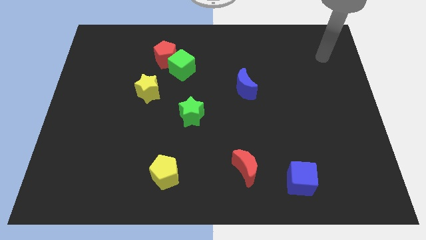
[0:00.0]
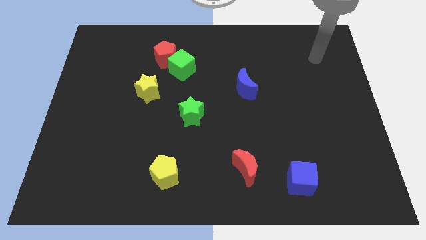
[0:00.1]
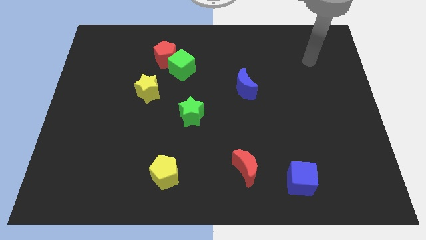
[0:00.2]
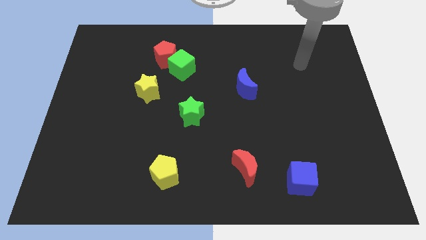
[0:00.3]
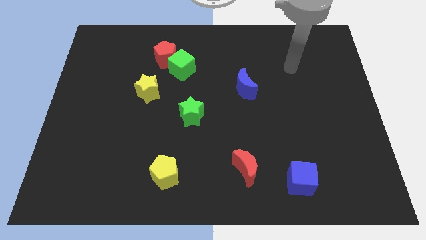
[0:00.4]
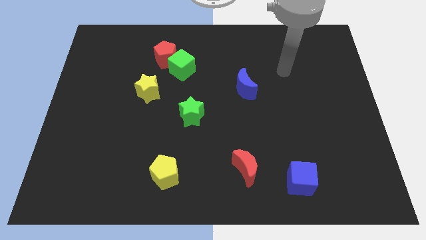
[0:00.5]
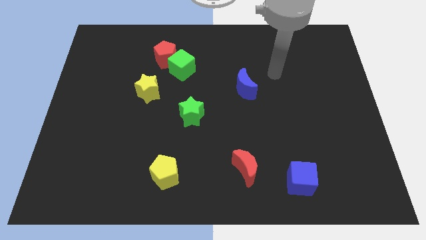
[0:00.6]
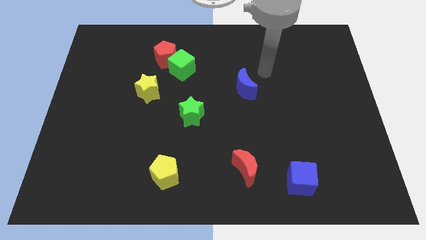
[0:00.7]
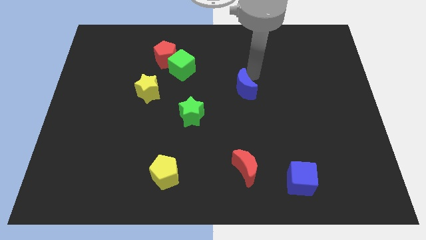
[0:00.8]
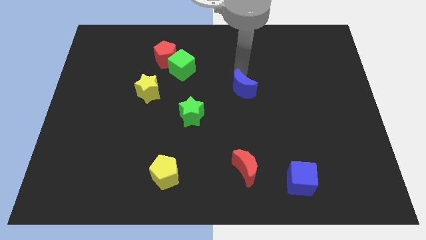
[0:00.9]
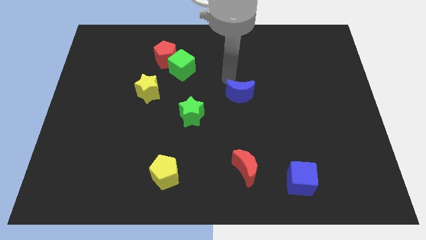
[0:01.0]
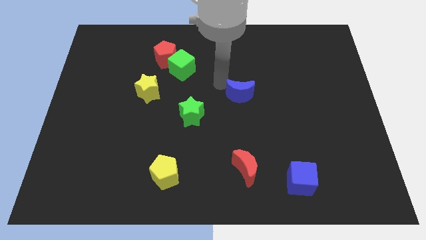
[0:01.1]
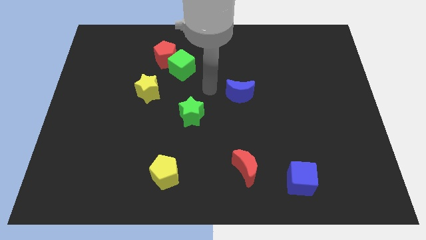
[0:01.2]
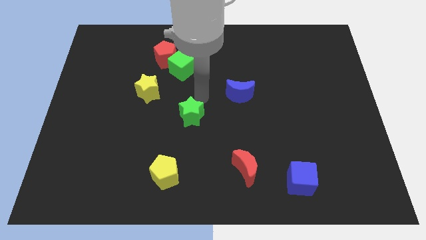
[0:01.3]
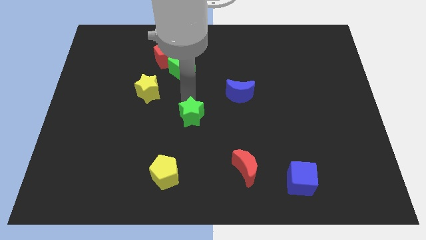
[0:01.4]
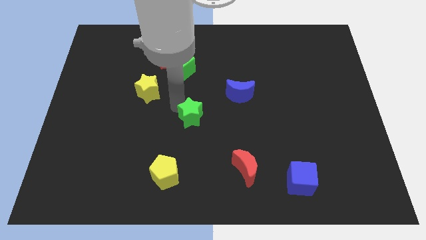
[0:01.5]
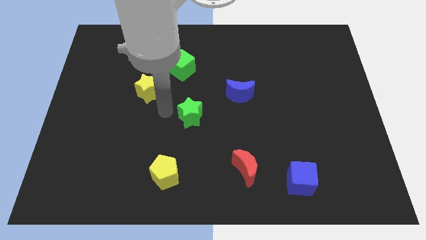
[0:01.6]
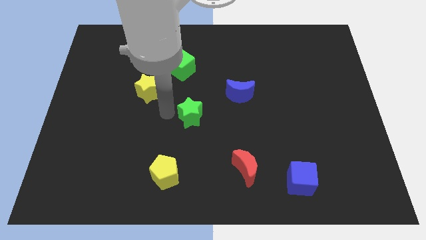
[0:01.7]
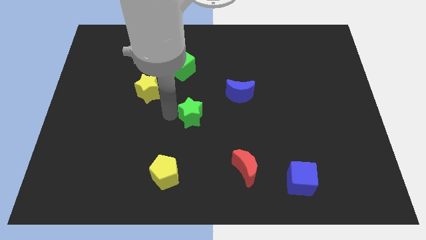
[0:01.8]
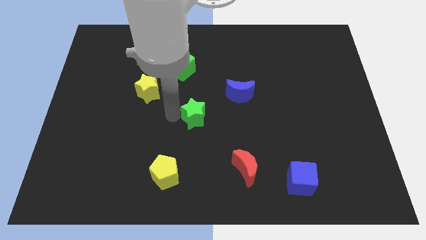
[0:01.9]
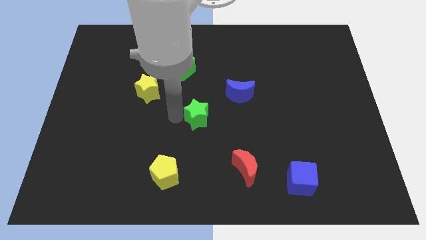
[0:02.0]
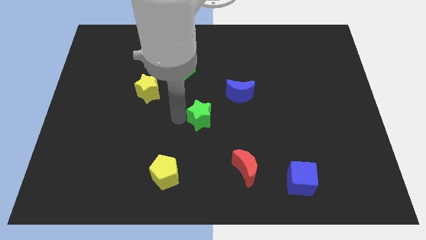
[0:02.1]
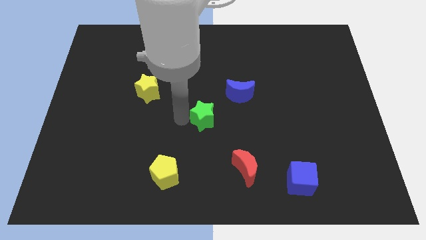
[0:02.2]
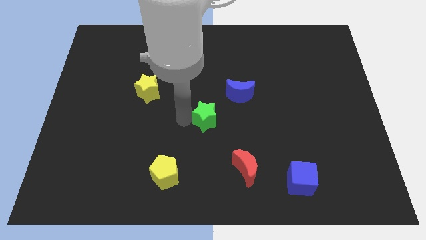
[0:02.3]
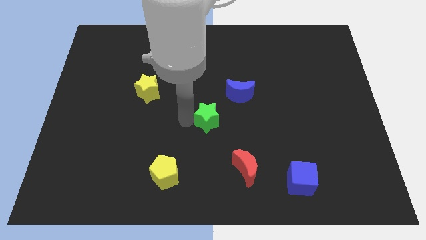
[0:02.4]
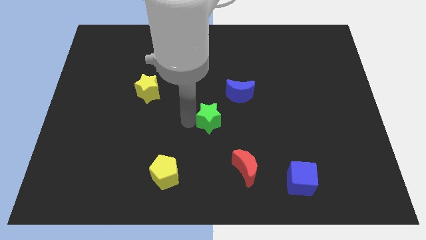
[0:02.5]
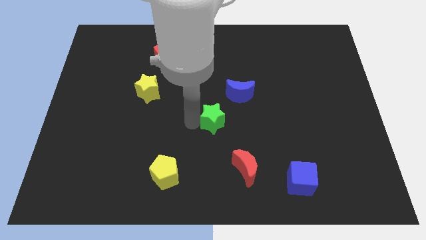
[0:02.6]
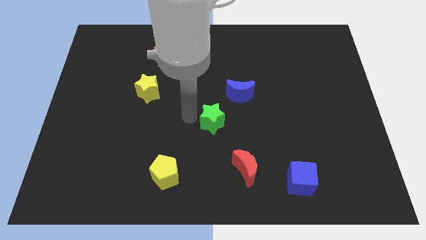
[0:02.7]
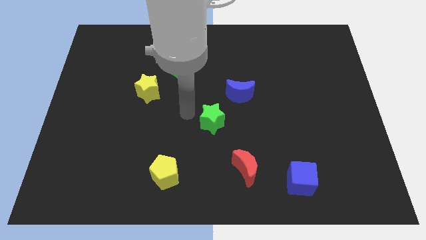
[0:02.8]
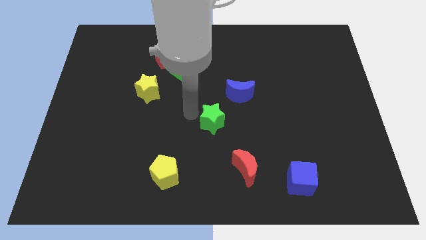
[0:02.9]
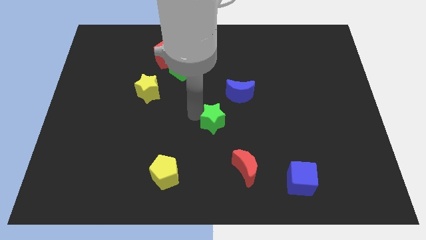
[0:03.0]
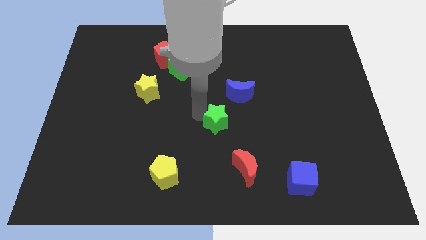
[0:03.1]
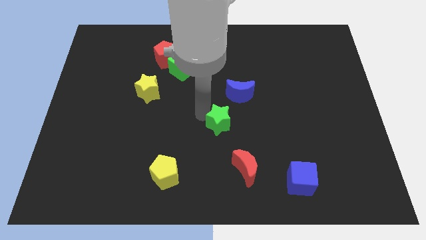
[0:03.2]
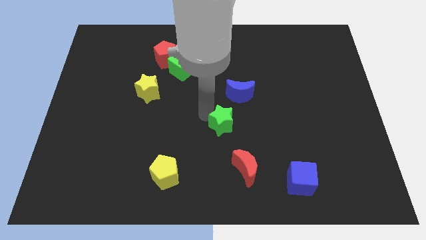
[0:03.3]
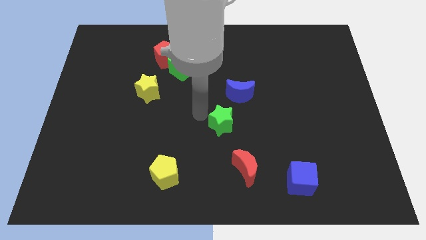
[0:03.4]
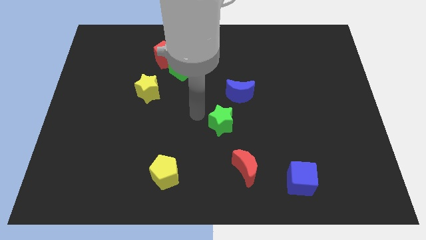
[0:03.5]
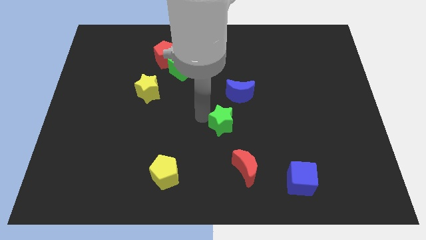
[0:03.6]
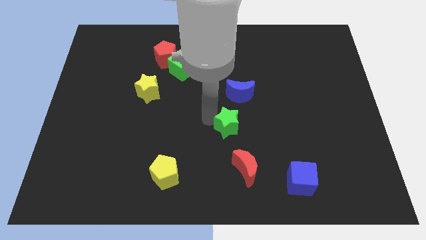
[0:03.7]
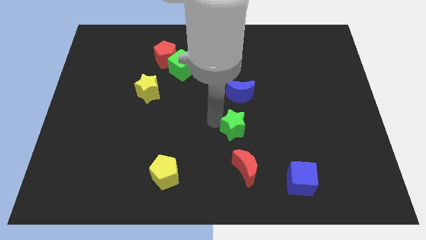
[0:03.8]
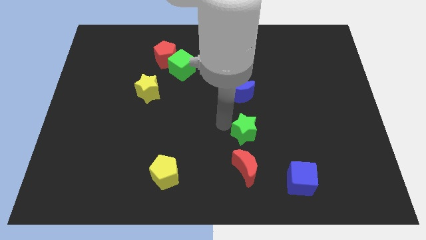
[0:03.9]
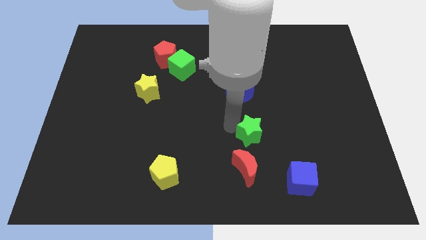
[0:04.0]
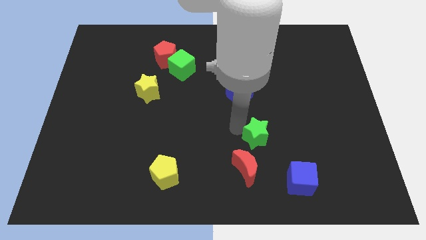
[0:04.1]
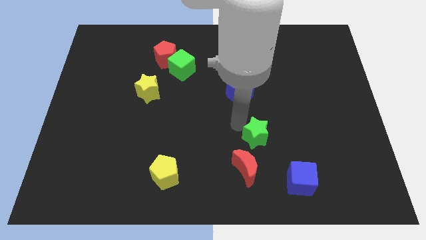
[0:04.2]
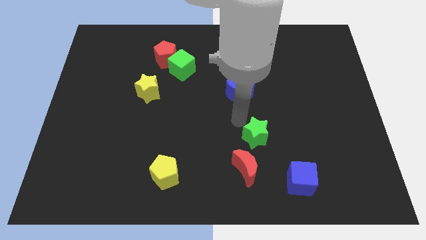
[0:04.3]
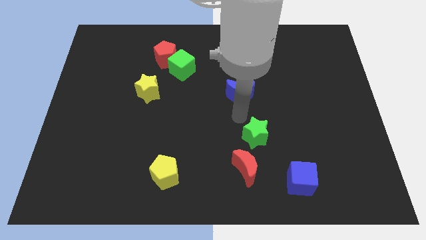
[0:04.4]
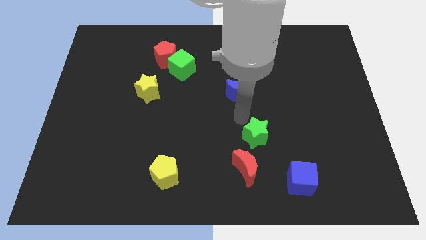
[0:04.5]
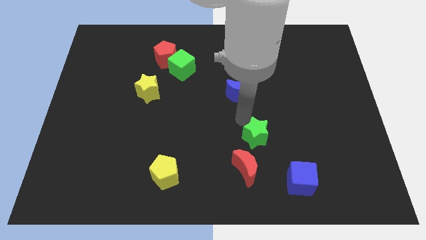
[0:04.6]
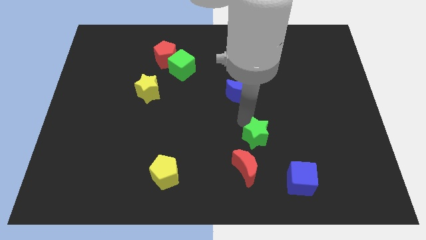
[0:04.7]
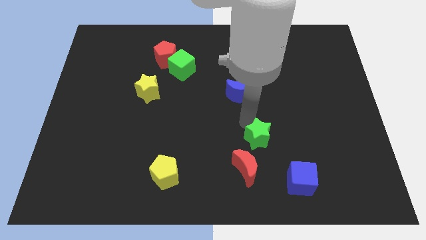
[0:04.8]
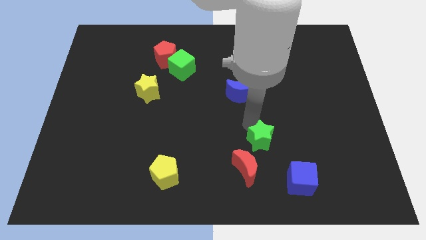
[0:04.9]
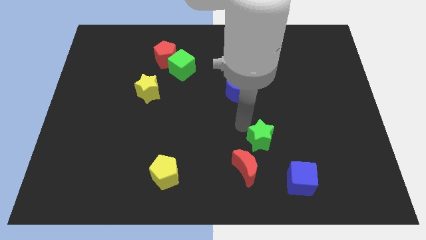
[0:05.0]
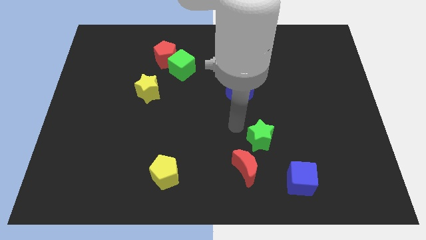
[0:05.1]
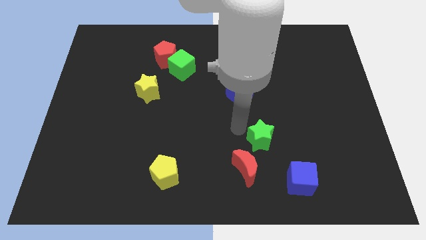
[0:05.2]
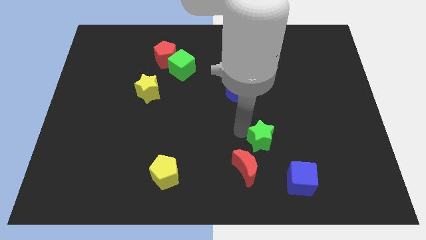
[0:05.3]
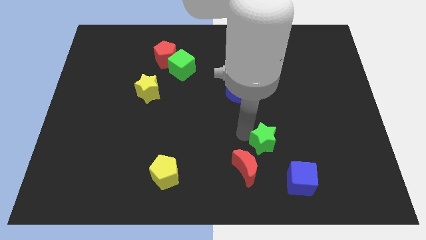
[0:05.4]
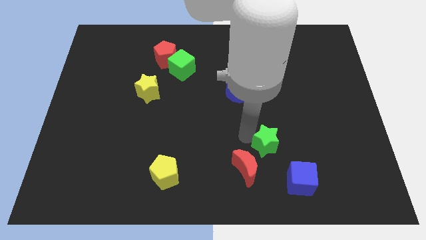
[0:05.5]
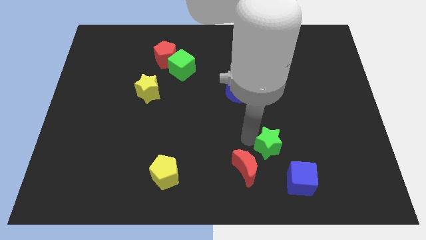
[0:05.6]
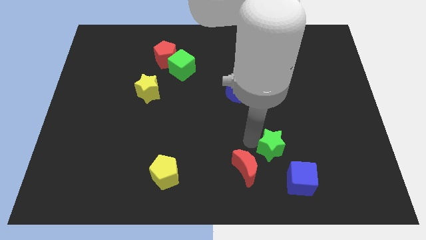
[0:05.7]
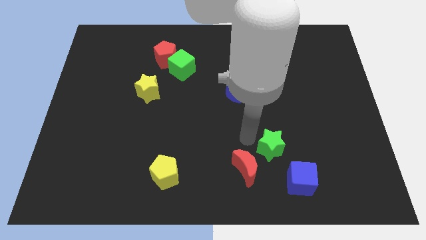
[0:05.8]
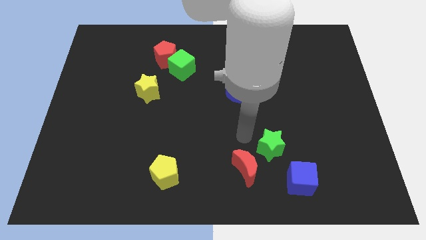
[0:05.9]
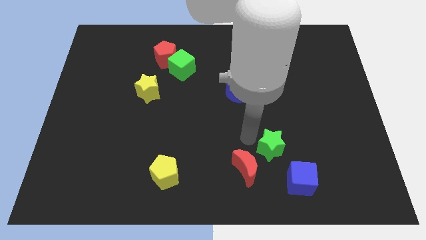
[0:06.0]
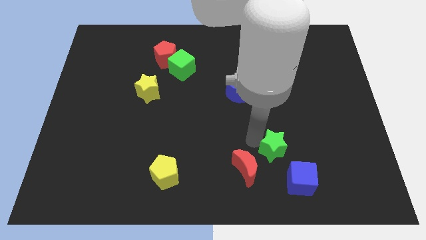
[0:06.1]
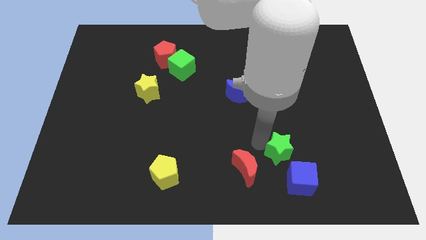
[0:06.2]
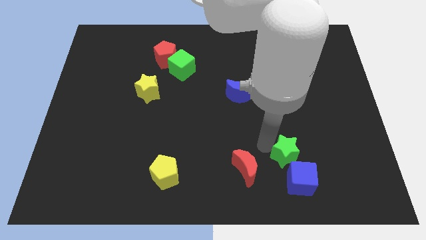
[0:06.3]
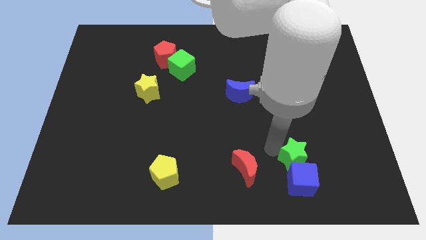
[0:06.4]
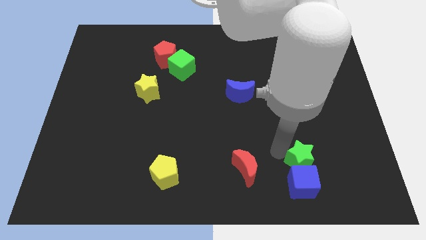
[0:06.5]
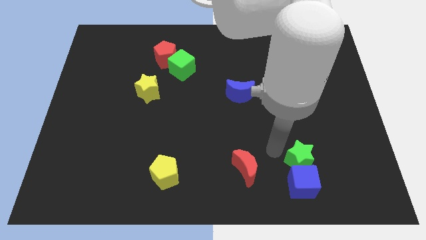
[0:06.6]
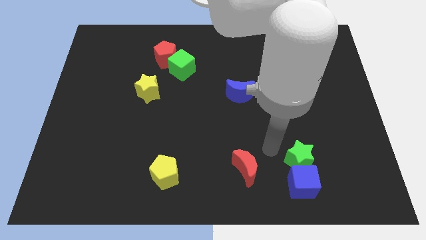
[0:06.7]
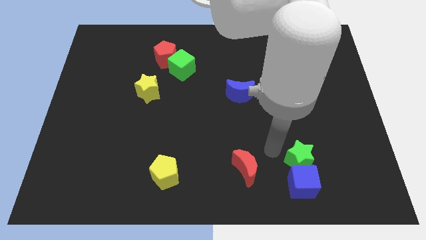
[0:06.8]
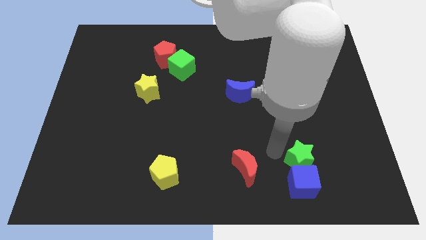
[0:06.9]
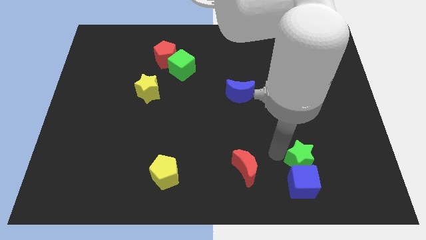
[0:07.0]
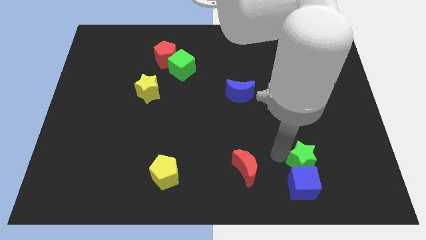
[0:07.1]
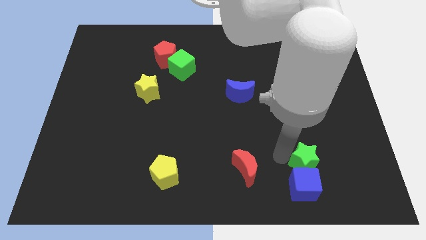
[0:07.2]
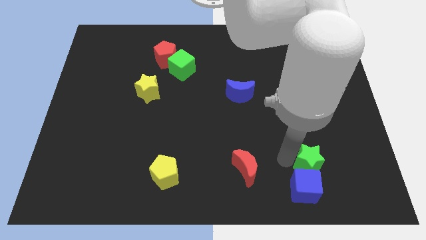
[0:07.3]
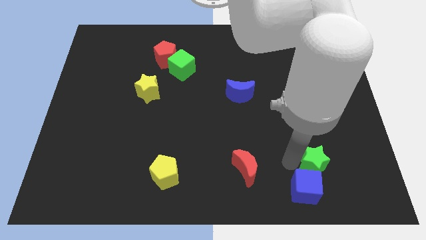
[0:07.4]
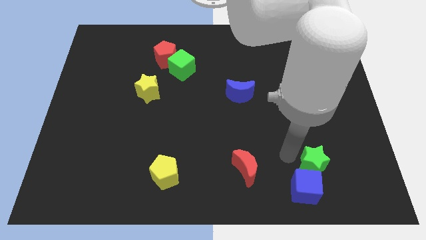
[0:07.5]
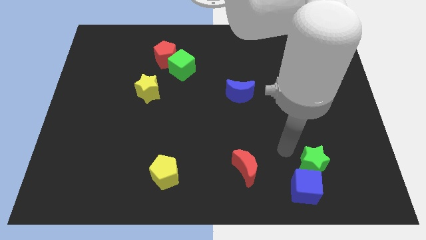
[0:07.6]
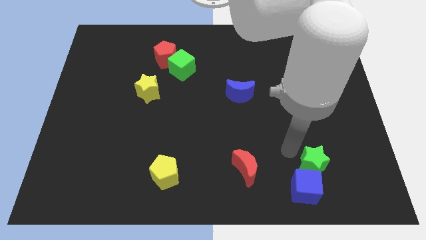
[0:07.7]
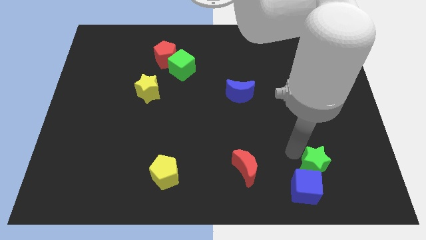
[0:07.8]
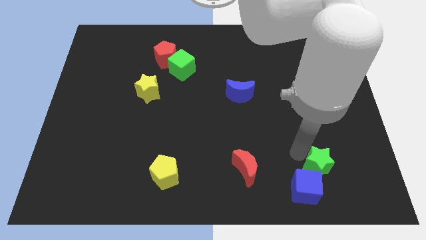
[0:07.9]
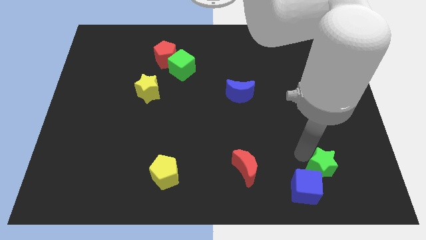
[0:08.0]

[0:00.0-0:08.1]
put the green star just right of the blue cube
